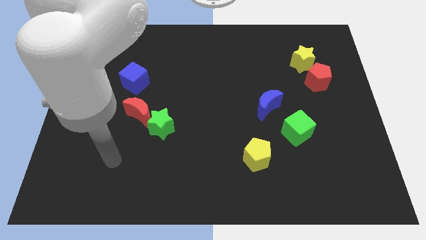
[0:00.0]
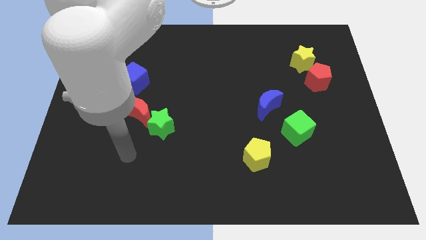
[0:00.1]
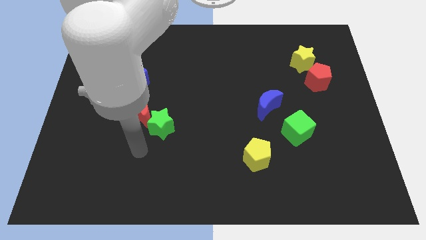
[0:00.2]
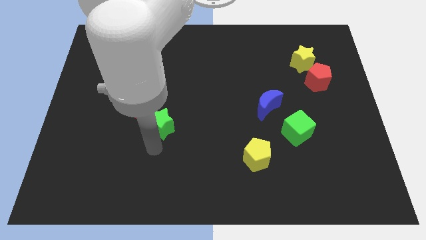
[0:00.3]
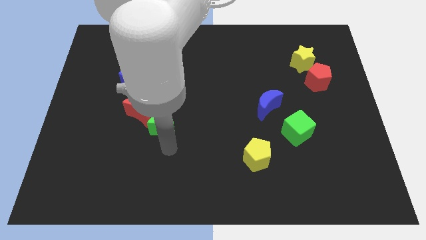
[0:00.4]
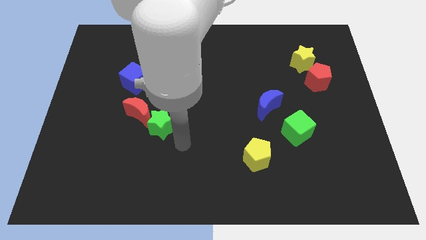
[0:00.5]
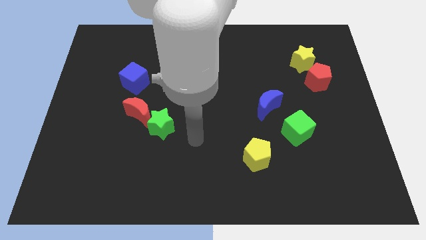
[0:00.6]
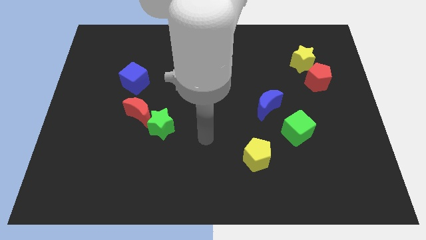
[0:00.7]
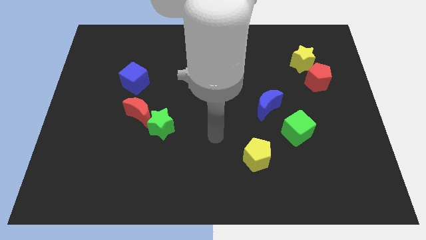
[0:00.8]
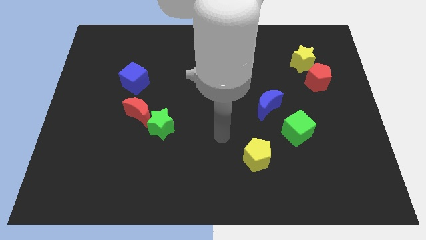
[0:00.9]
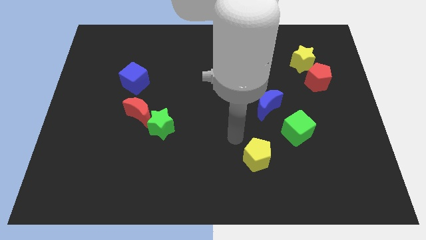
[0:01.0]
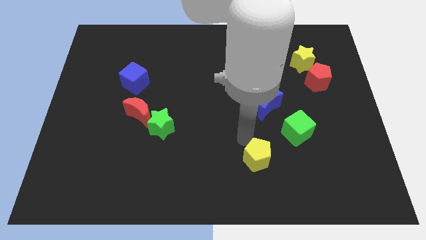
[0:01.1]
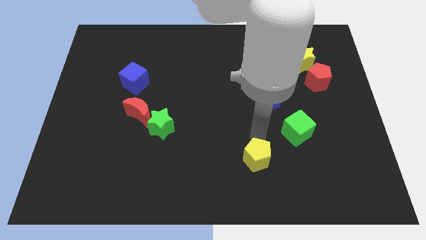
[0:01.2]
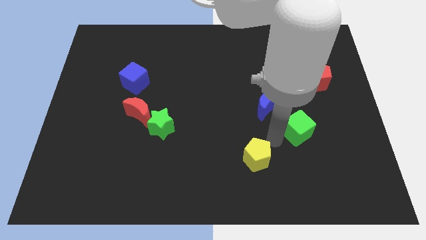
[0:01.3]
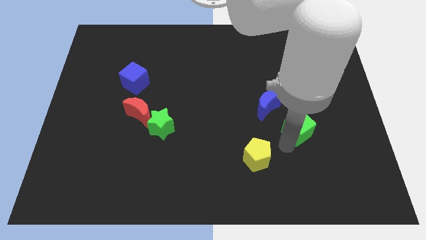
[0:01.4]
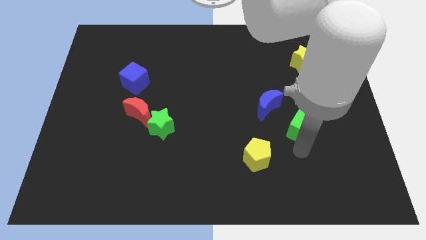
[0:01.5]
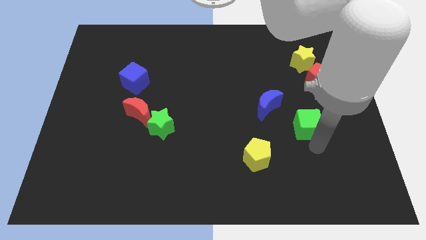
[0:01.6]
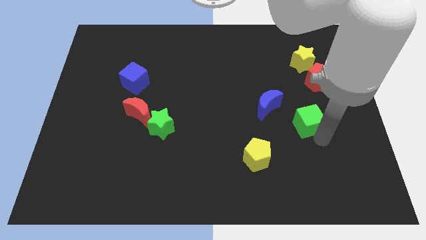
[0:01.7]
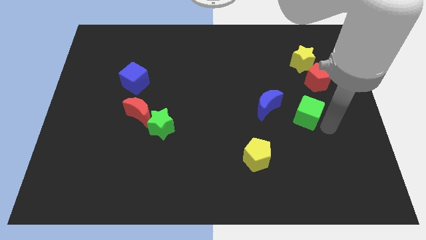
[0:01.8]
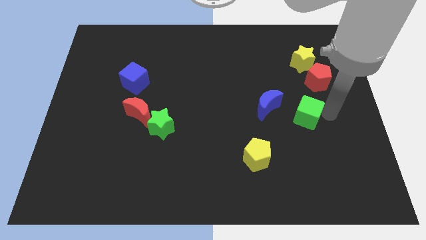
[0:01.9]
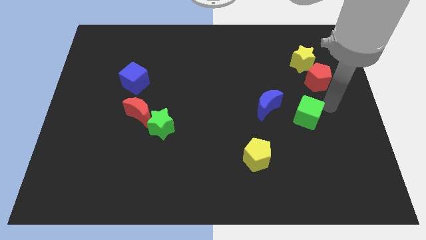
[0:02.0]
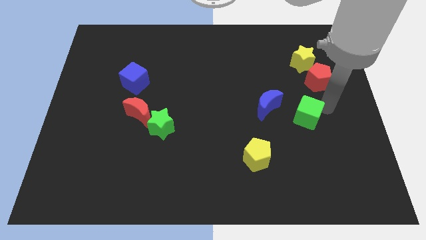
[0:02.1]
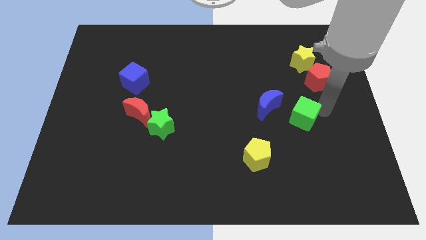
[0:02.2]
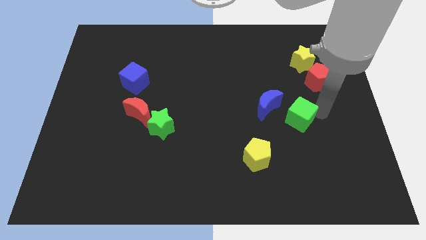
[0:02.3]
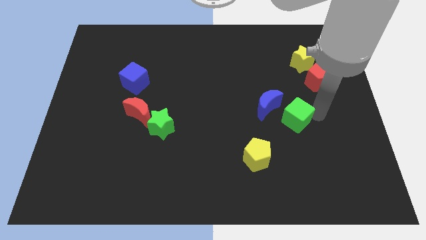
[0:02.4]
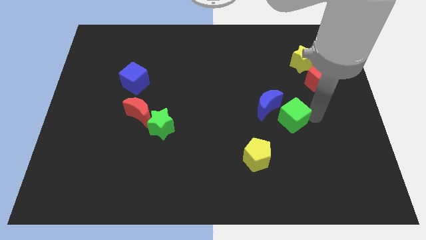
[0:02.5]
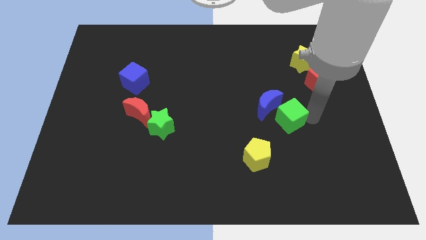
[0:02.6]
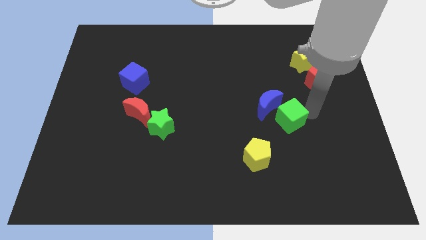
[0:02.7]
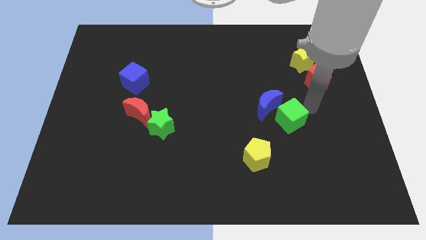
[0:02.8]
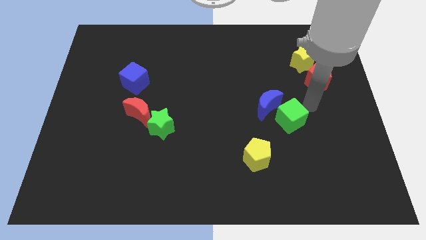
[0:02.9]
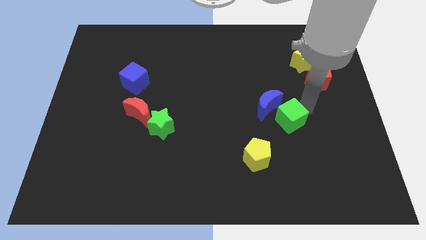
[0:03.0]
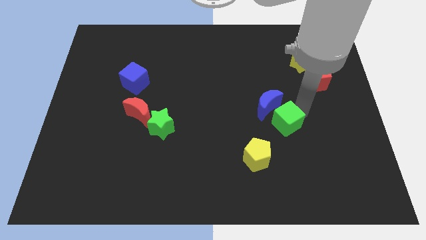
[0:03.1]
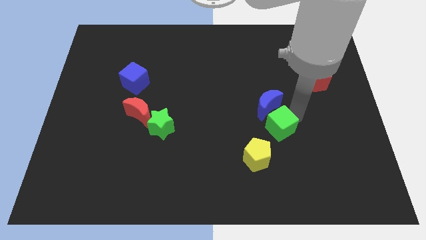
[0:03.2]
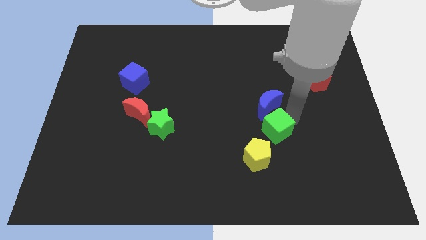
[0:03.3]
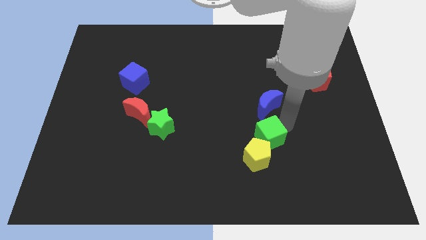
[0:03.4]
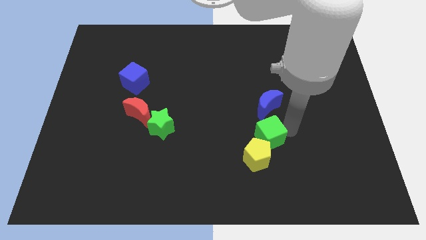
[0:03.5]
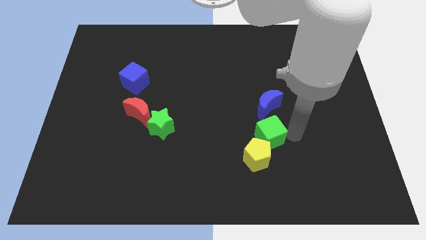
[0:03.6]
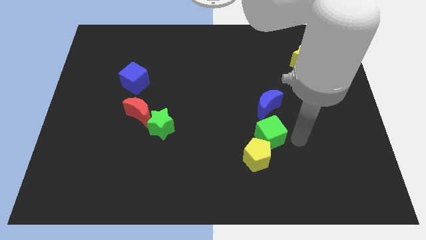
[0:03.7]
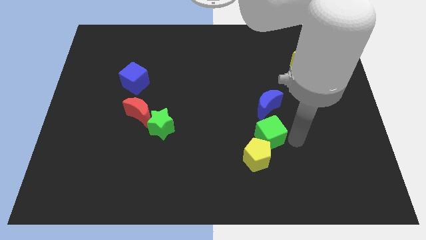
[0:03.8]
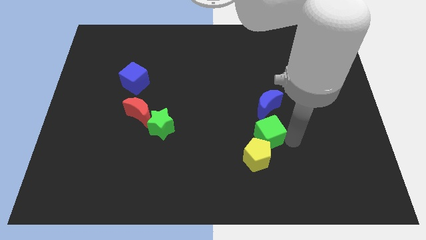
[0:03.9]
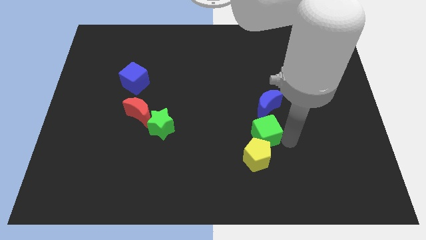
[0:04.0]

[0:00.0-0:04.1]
slide the green cube left a little bit

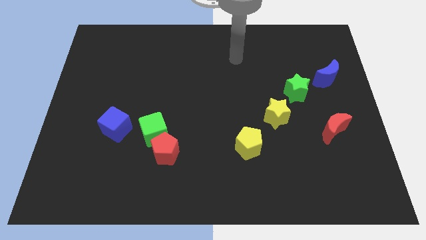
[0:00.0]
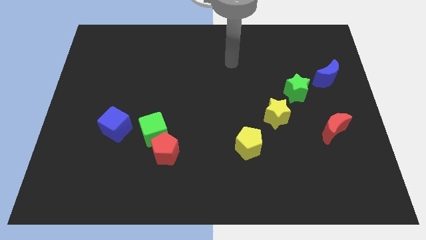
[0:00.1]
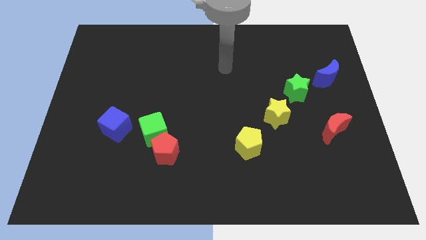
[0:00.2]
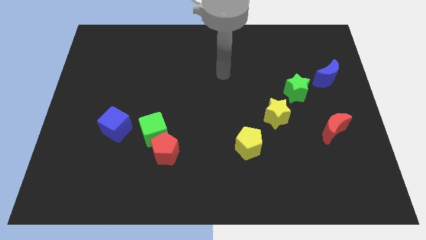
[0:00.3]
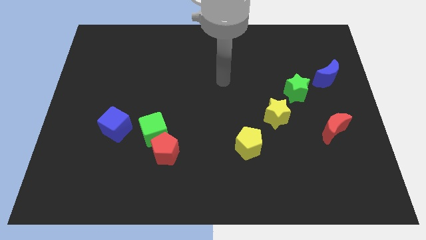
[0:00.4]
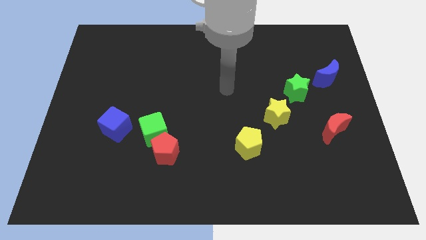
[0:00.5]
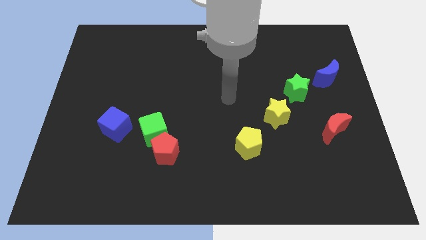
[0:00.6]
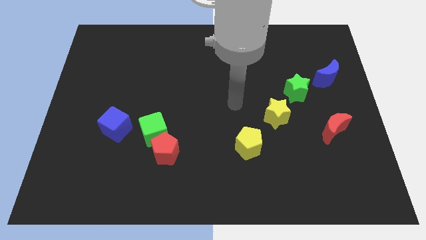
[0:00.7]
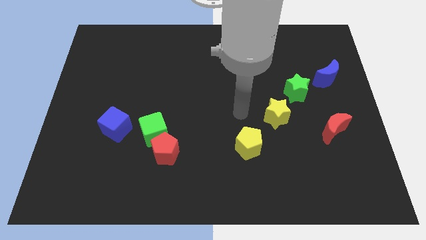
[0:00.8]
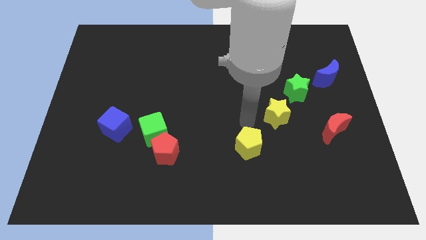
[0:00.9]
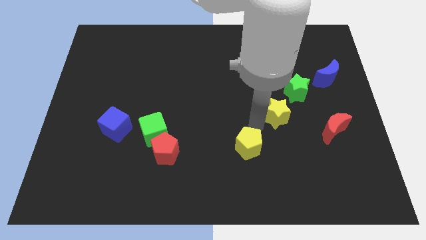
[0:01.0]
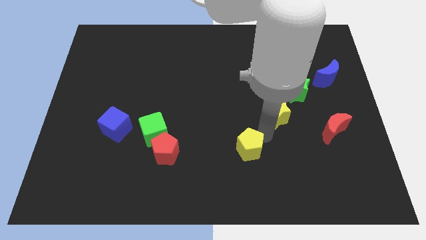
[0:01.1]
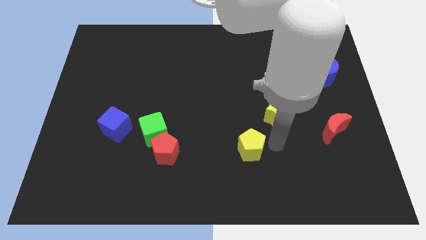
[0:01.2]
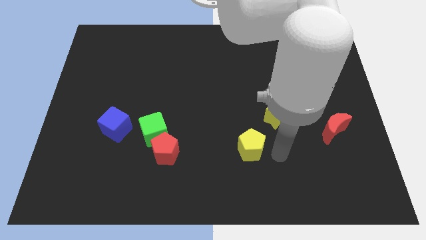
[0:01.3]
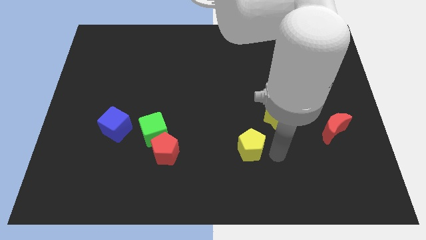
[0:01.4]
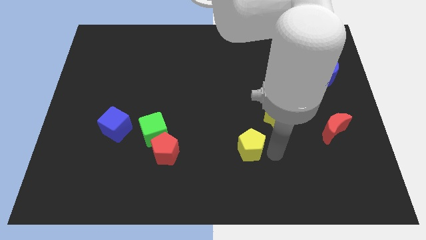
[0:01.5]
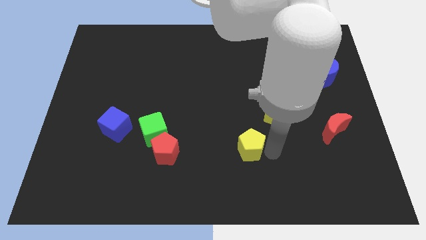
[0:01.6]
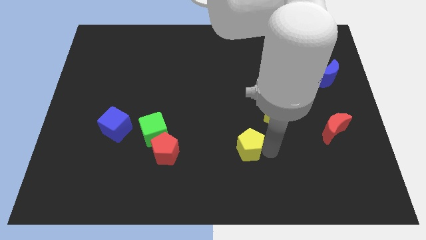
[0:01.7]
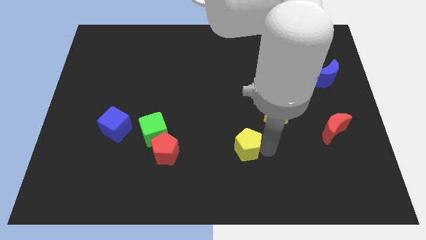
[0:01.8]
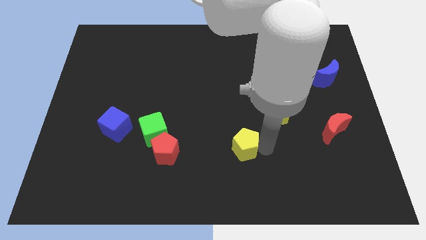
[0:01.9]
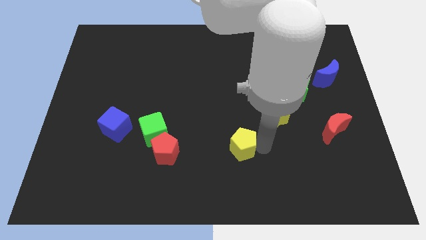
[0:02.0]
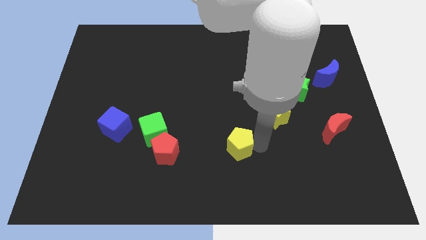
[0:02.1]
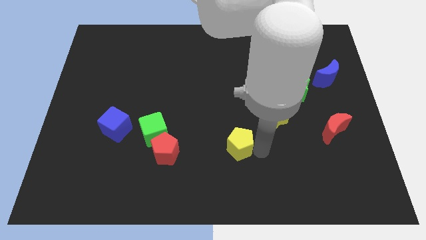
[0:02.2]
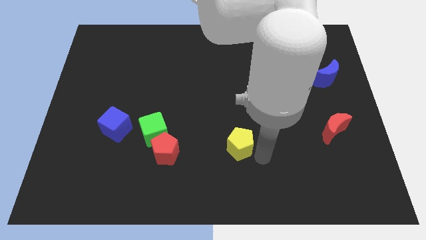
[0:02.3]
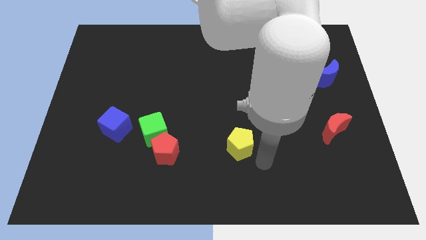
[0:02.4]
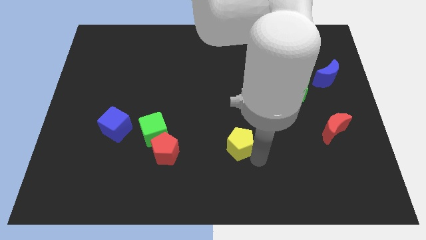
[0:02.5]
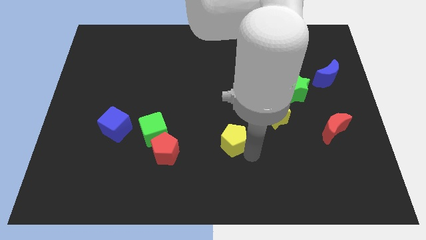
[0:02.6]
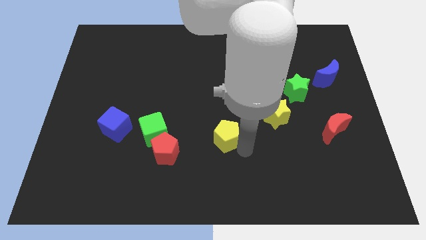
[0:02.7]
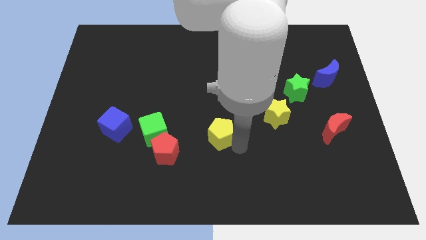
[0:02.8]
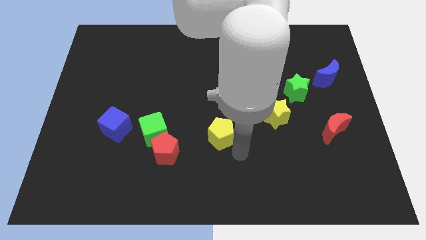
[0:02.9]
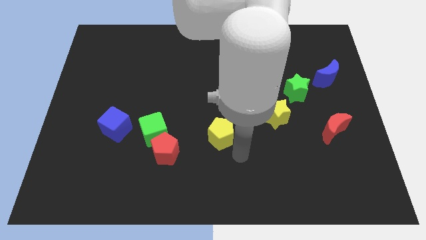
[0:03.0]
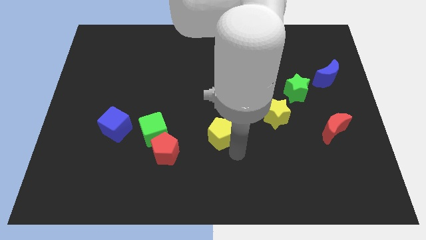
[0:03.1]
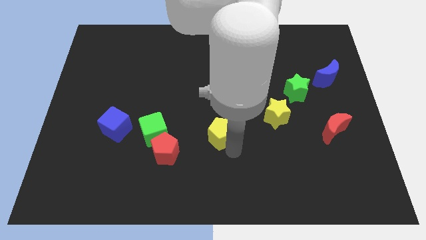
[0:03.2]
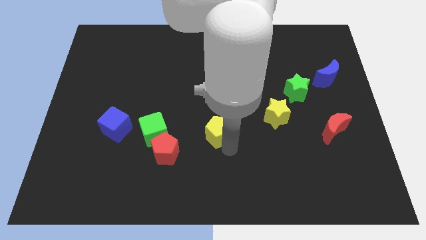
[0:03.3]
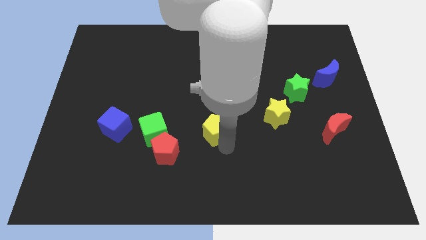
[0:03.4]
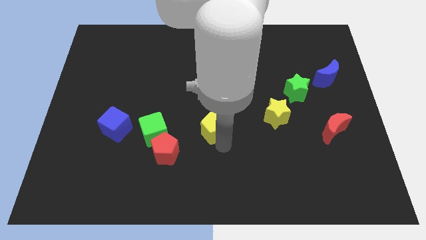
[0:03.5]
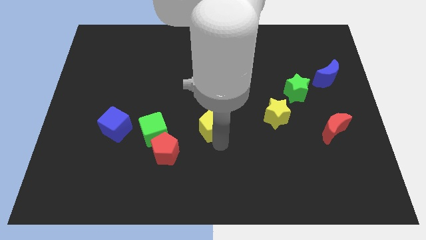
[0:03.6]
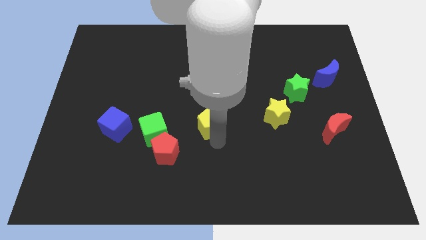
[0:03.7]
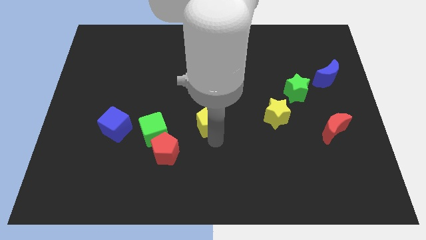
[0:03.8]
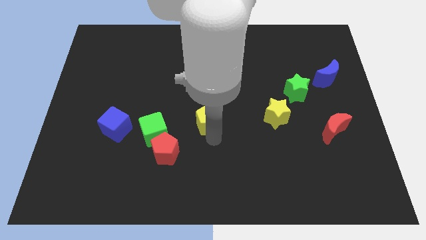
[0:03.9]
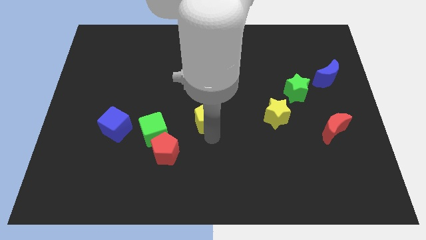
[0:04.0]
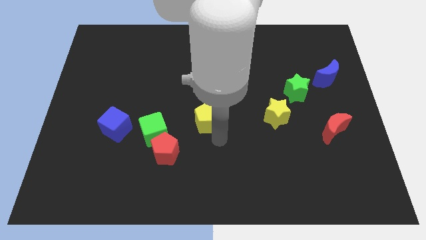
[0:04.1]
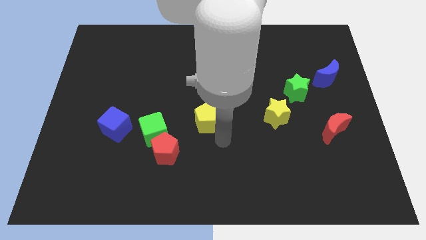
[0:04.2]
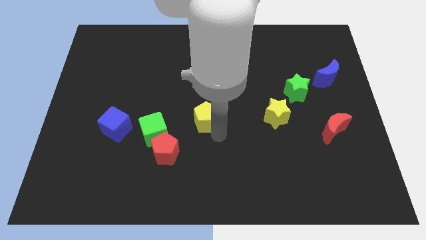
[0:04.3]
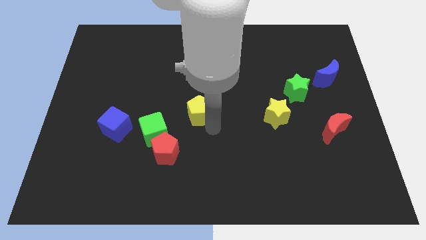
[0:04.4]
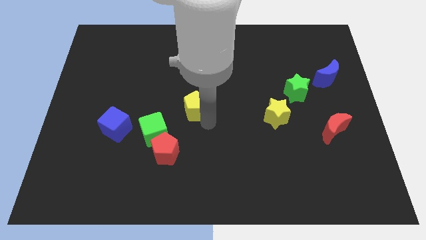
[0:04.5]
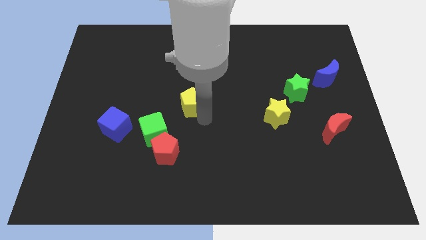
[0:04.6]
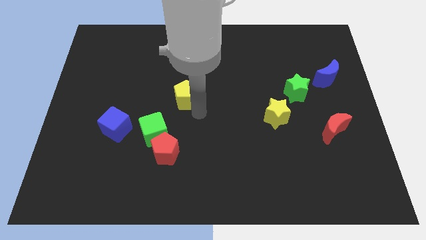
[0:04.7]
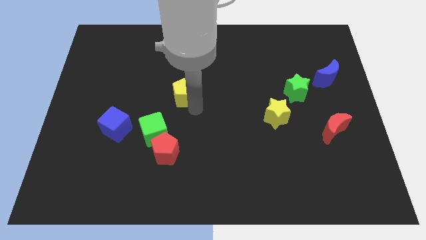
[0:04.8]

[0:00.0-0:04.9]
push the yellow pentagon diagonally upwards and to the left
